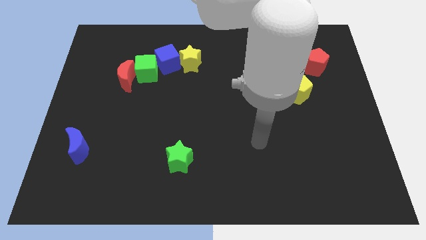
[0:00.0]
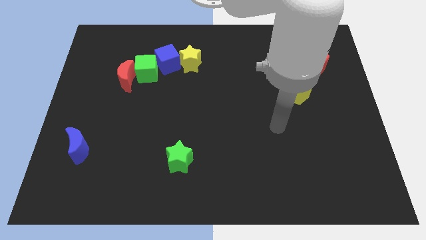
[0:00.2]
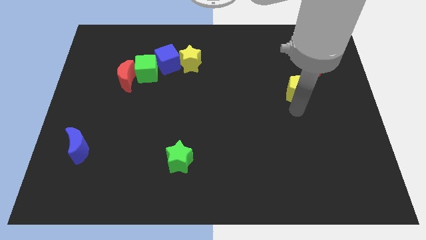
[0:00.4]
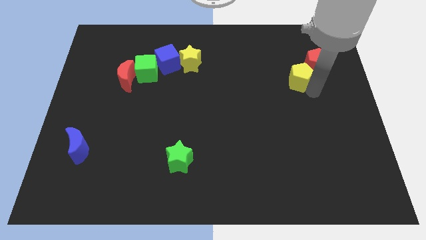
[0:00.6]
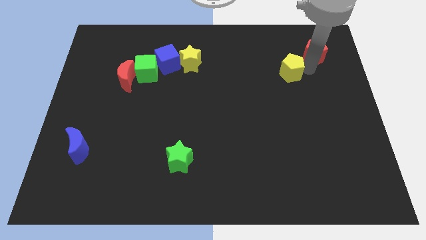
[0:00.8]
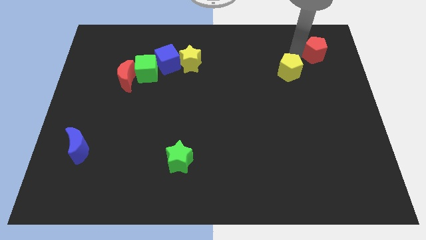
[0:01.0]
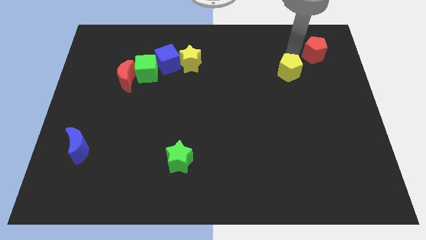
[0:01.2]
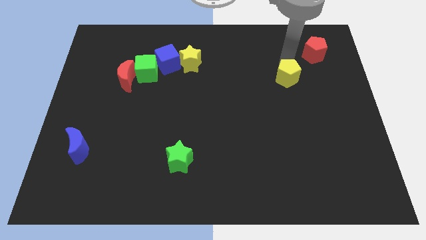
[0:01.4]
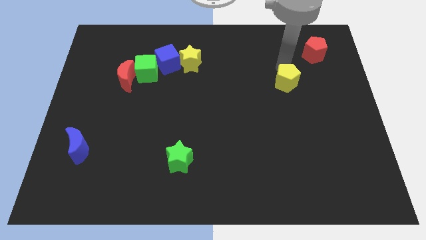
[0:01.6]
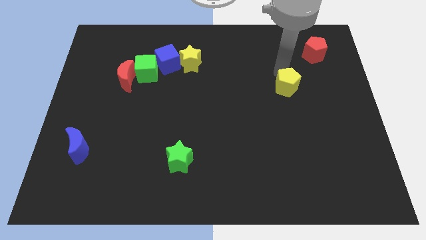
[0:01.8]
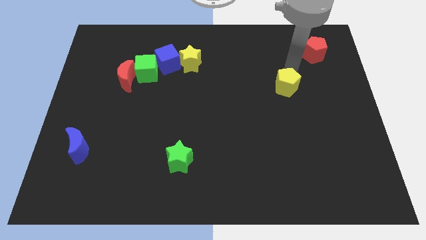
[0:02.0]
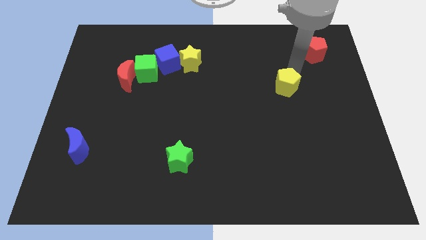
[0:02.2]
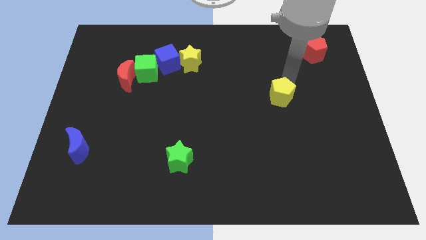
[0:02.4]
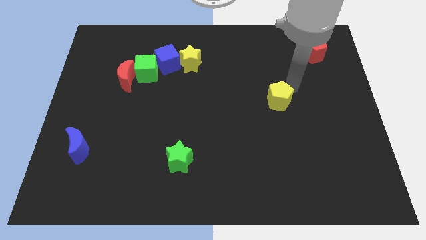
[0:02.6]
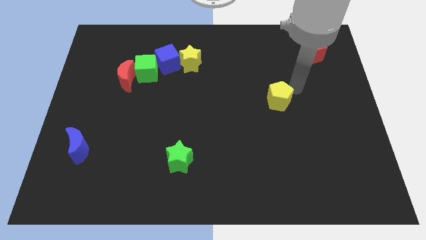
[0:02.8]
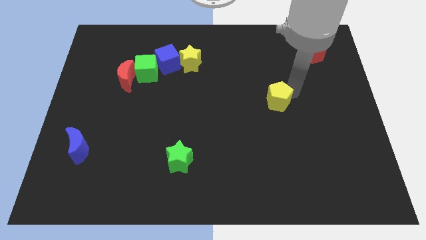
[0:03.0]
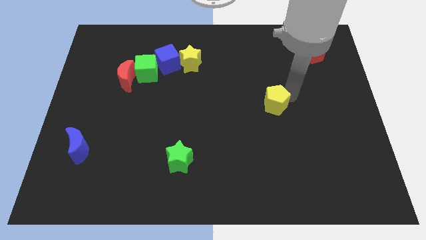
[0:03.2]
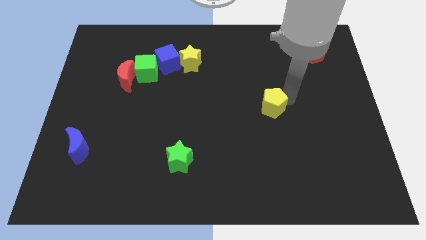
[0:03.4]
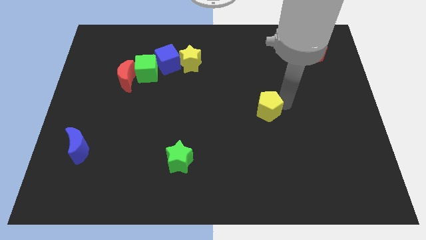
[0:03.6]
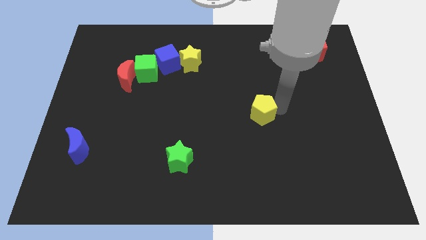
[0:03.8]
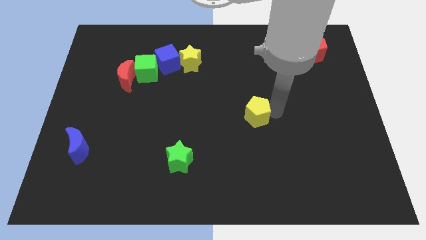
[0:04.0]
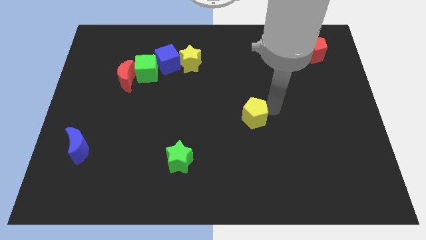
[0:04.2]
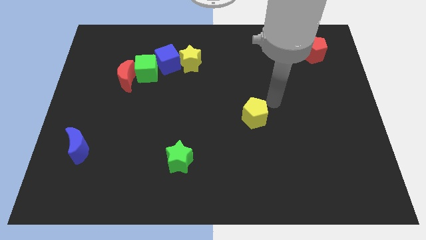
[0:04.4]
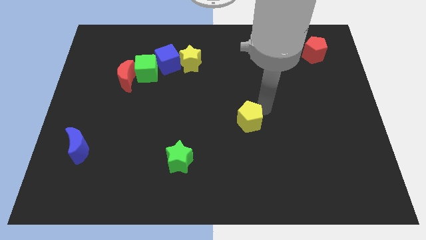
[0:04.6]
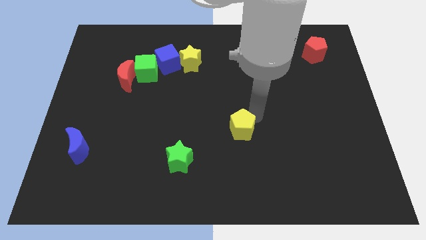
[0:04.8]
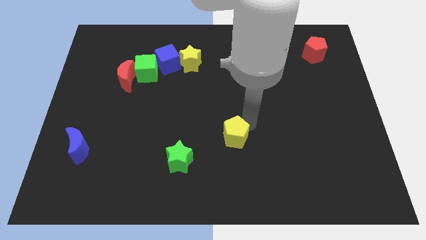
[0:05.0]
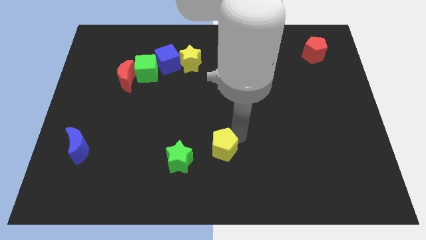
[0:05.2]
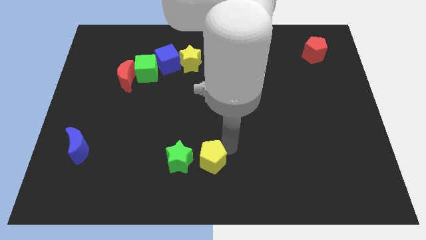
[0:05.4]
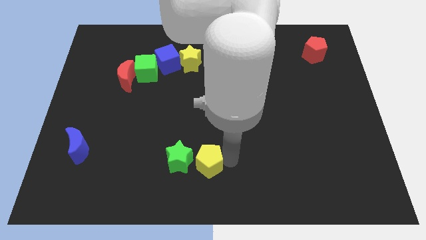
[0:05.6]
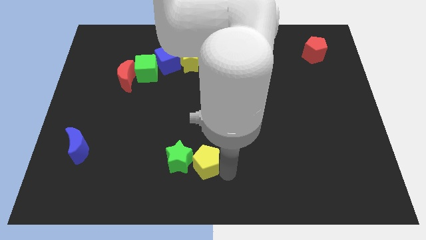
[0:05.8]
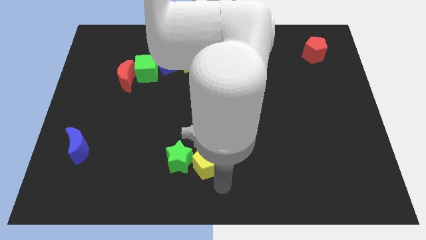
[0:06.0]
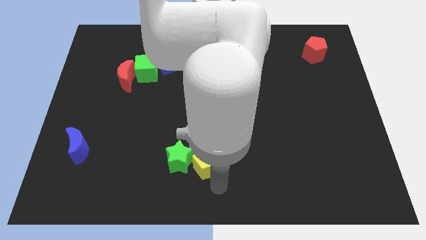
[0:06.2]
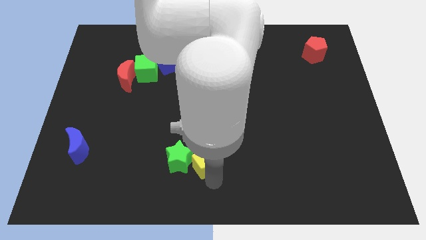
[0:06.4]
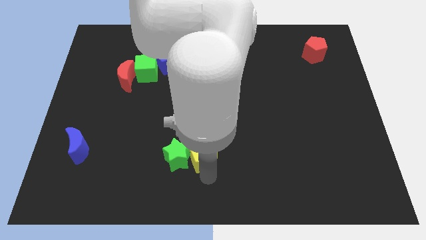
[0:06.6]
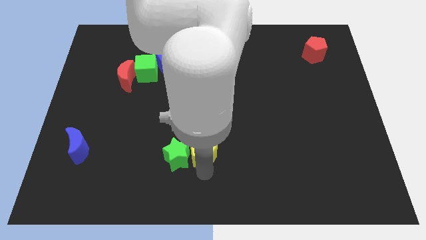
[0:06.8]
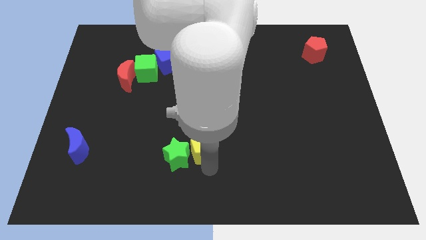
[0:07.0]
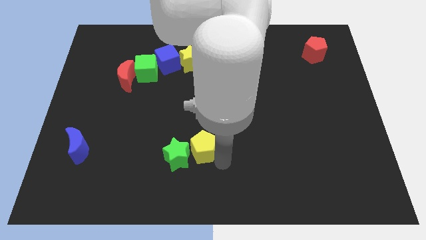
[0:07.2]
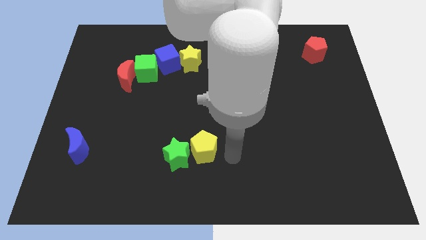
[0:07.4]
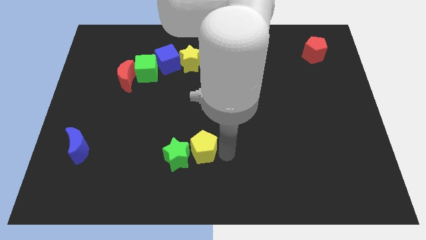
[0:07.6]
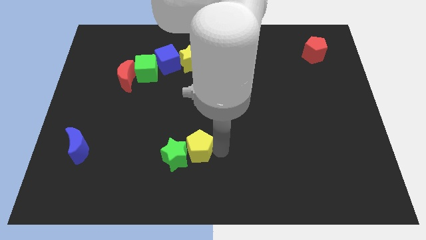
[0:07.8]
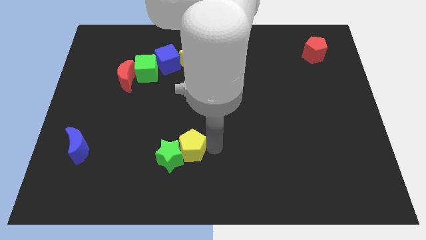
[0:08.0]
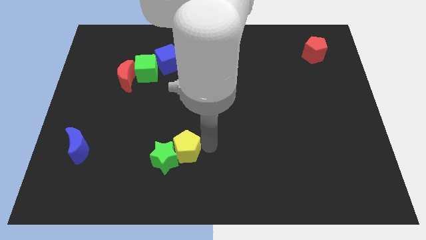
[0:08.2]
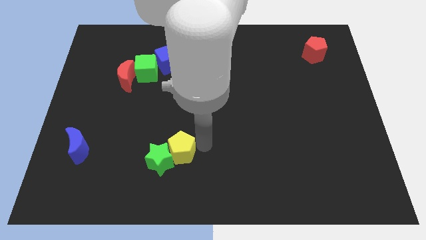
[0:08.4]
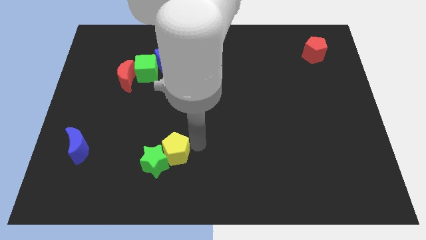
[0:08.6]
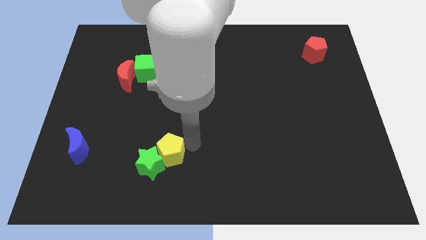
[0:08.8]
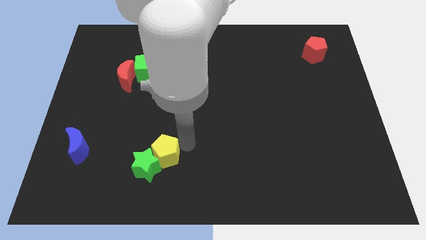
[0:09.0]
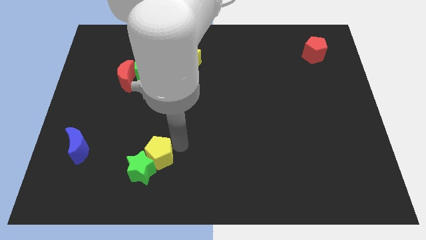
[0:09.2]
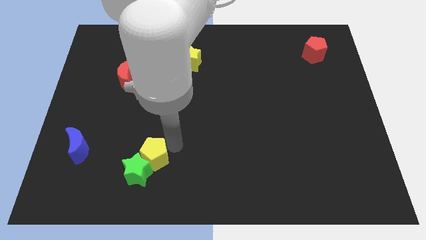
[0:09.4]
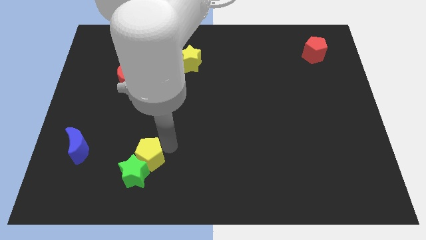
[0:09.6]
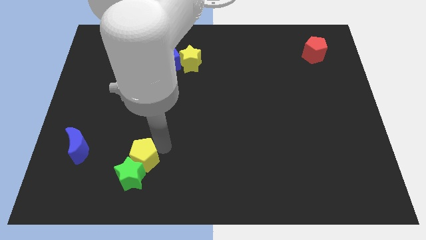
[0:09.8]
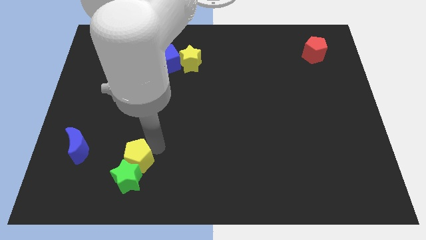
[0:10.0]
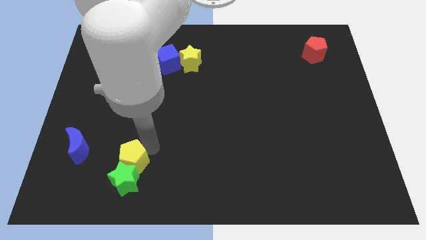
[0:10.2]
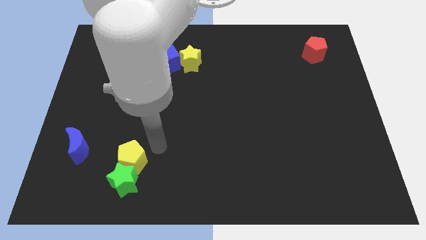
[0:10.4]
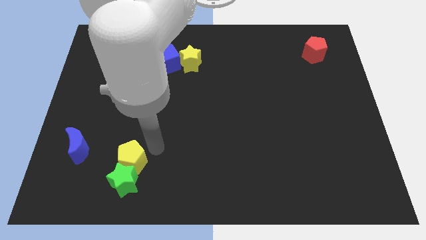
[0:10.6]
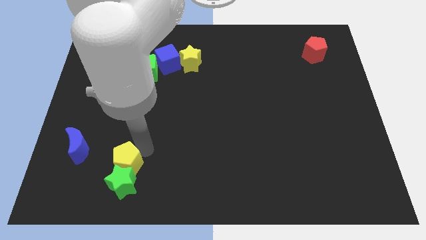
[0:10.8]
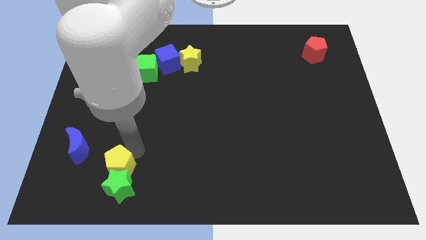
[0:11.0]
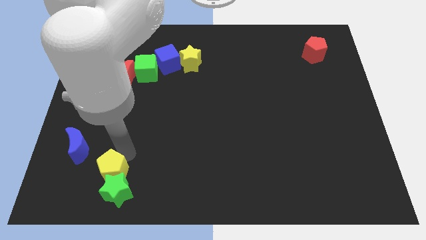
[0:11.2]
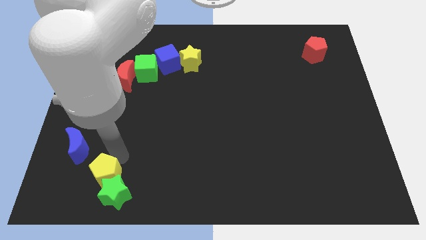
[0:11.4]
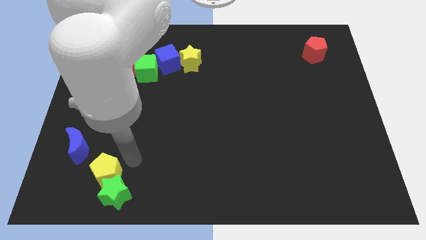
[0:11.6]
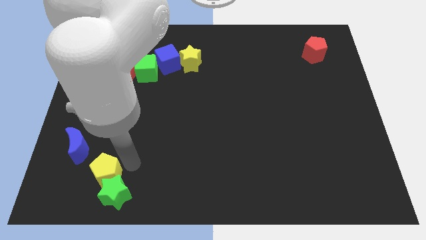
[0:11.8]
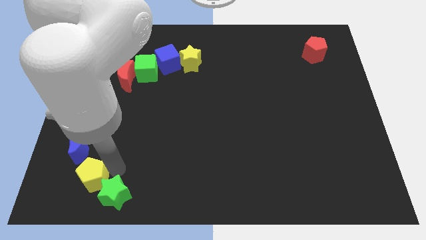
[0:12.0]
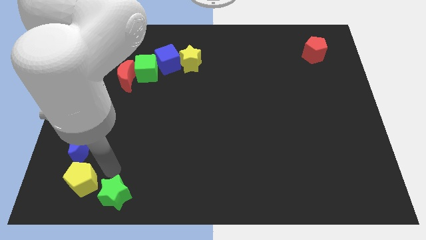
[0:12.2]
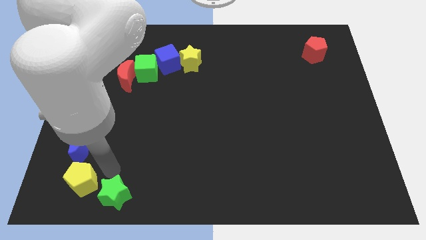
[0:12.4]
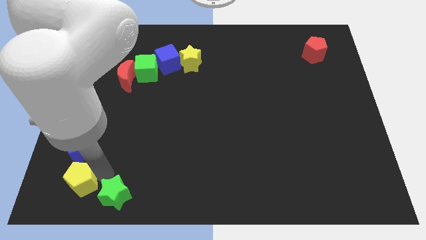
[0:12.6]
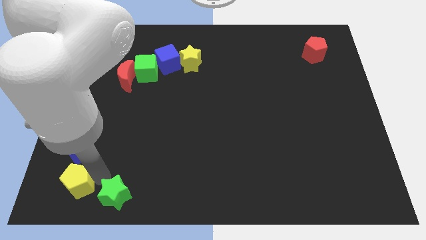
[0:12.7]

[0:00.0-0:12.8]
move the yellow pentagon to the bottom left corner
